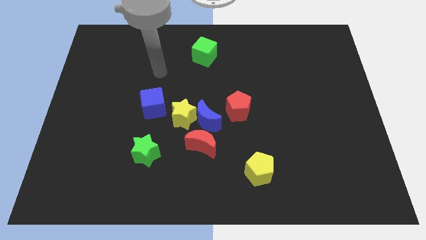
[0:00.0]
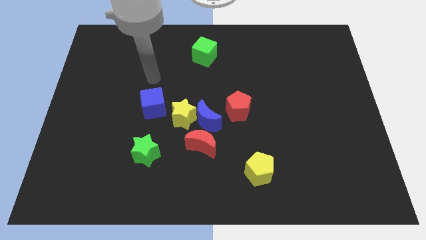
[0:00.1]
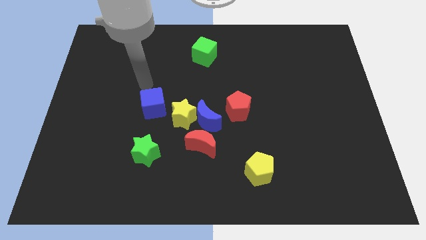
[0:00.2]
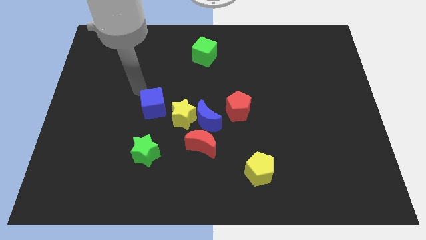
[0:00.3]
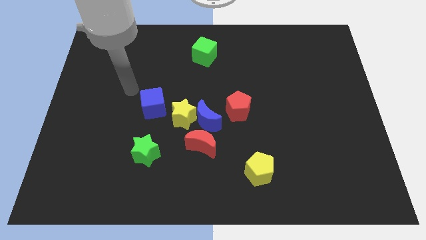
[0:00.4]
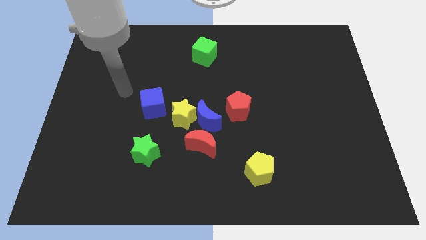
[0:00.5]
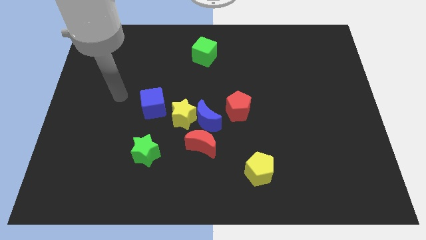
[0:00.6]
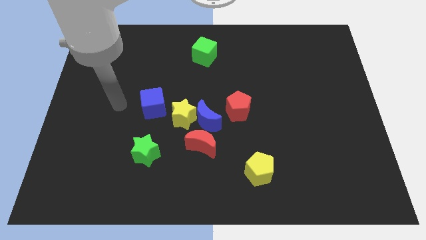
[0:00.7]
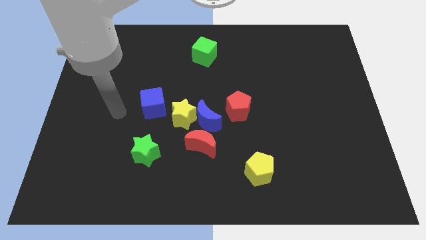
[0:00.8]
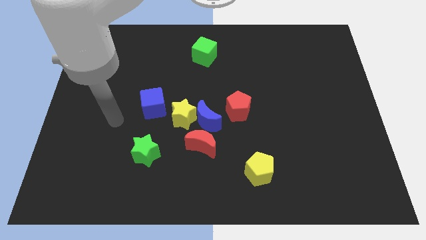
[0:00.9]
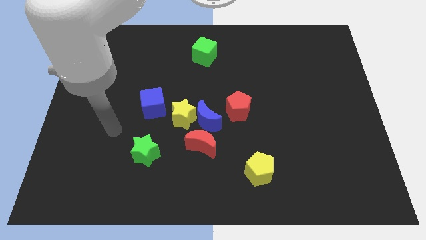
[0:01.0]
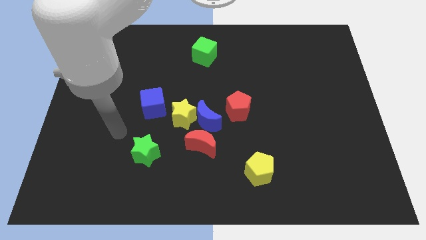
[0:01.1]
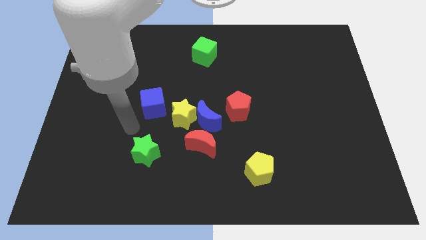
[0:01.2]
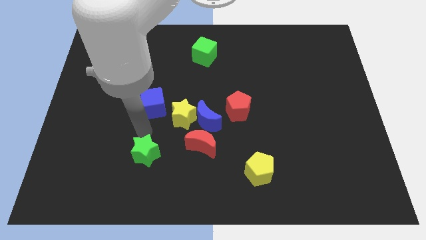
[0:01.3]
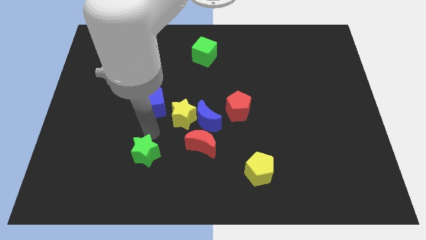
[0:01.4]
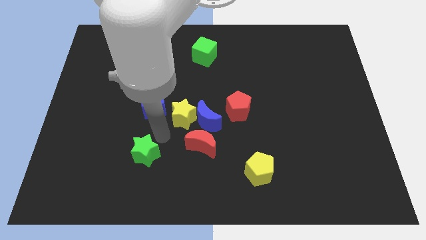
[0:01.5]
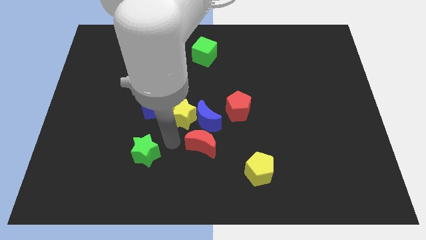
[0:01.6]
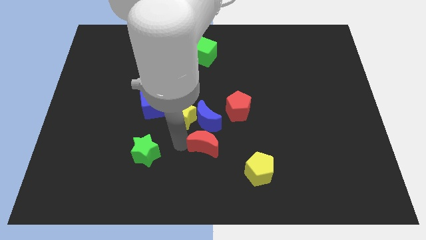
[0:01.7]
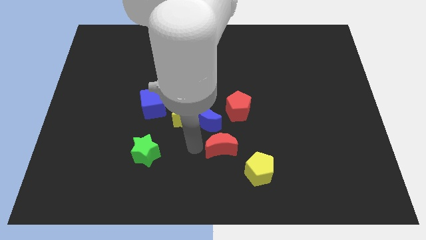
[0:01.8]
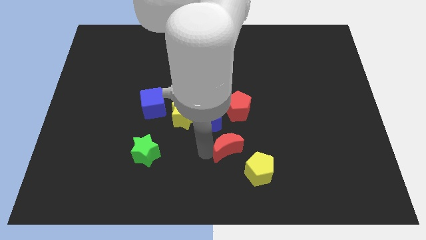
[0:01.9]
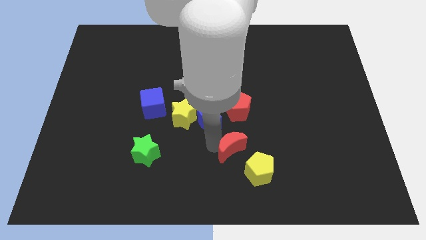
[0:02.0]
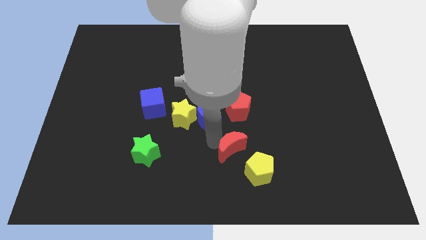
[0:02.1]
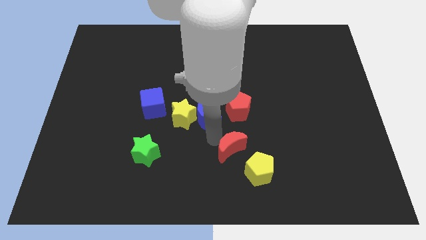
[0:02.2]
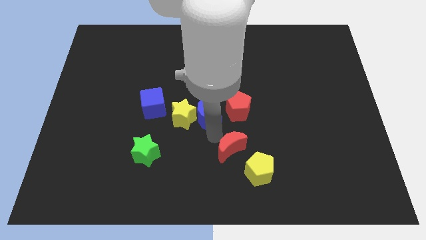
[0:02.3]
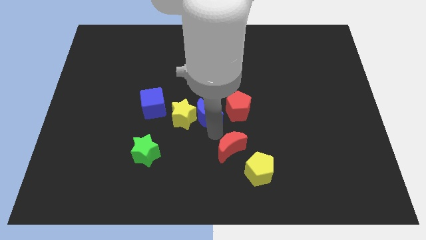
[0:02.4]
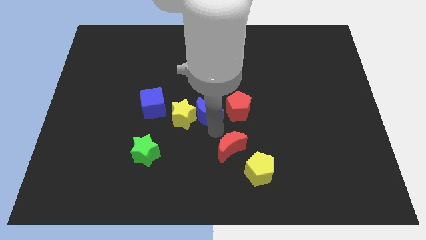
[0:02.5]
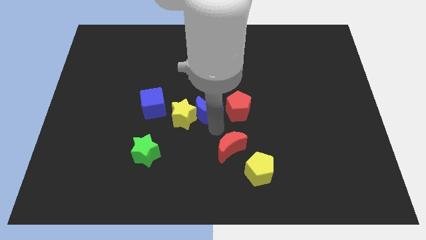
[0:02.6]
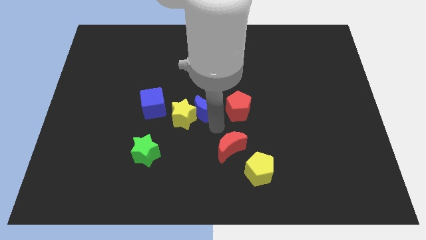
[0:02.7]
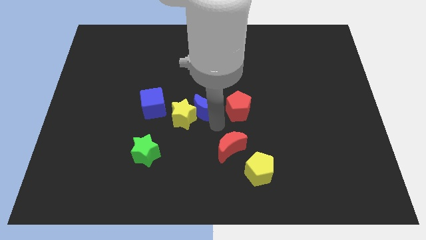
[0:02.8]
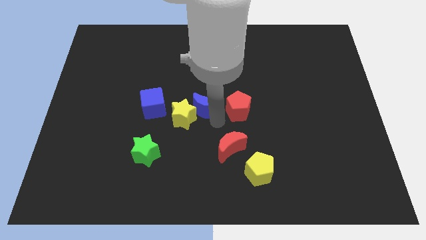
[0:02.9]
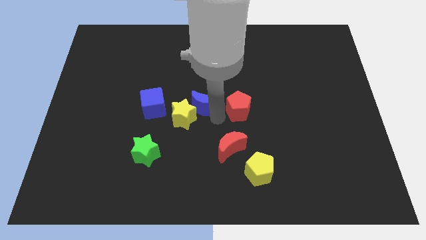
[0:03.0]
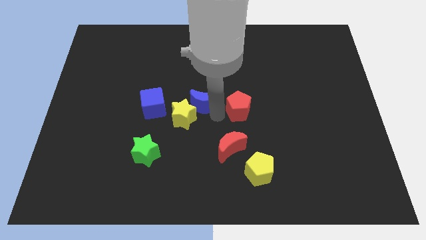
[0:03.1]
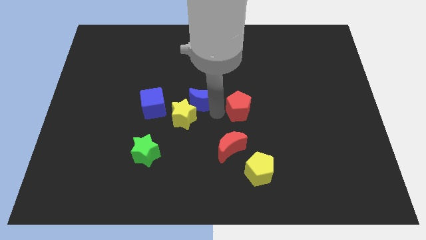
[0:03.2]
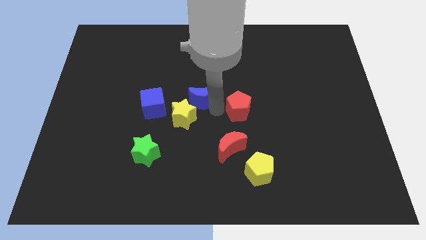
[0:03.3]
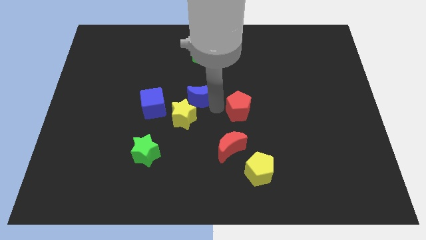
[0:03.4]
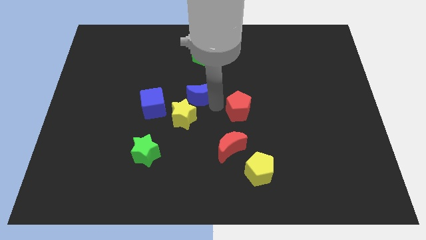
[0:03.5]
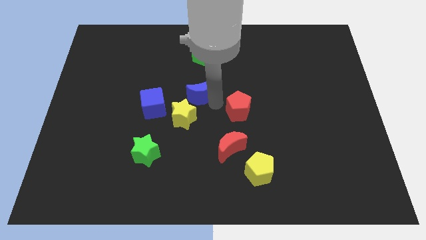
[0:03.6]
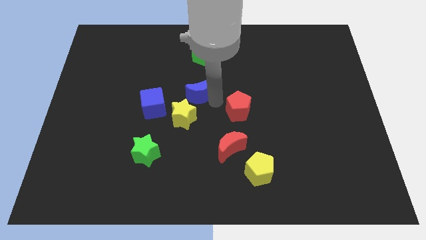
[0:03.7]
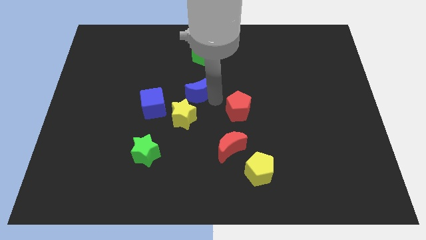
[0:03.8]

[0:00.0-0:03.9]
separate the blue moon from the clump

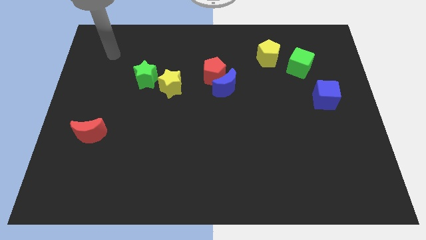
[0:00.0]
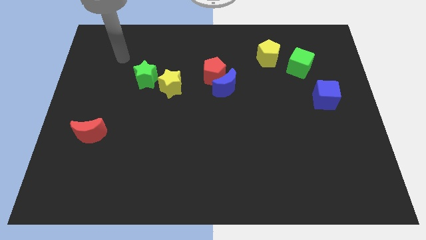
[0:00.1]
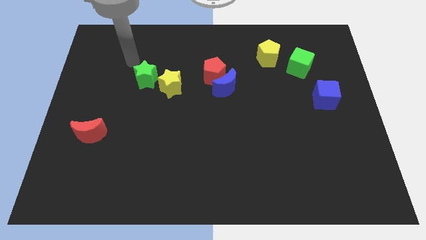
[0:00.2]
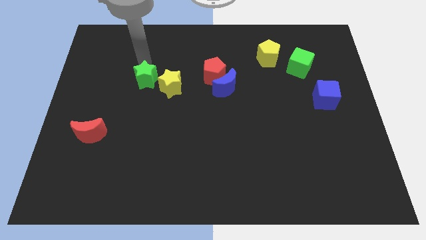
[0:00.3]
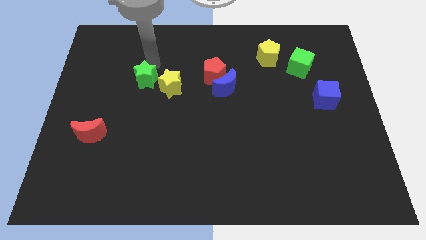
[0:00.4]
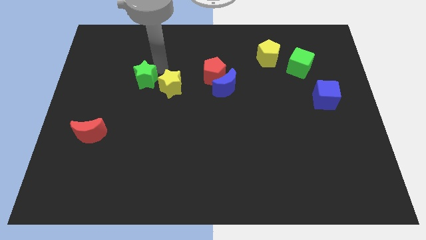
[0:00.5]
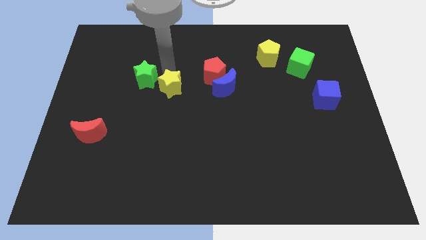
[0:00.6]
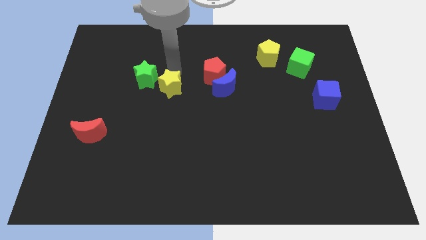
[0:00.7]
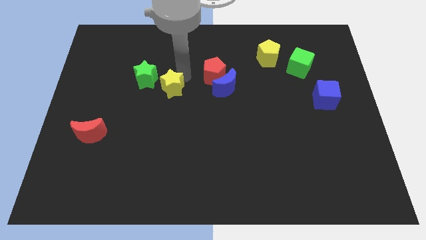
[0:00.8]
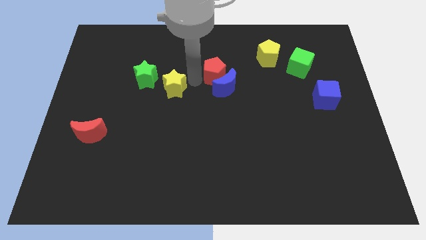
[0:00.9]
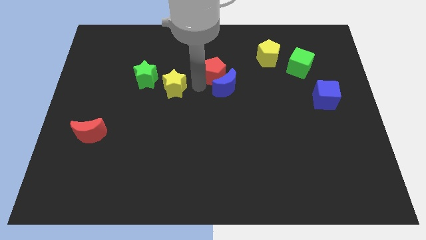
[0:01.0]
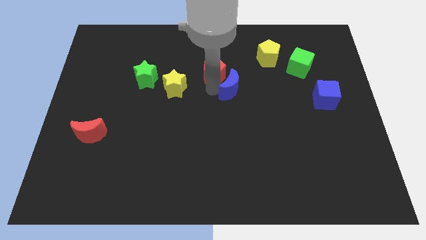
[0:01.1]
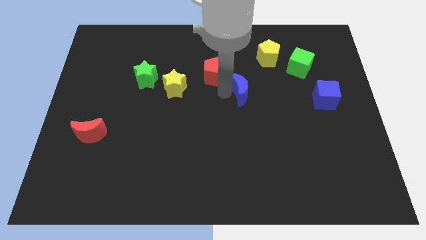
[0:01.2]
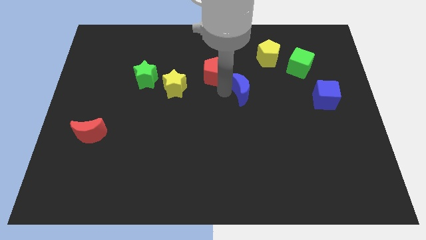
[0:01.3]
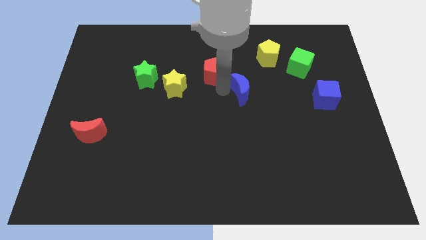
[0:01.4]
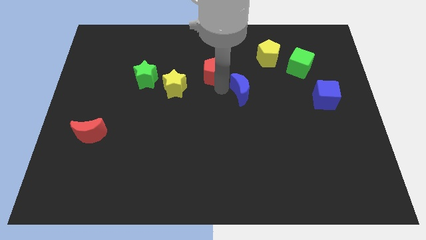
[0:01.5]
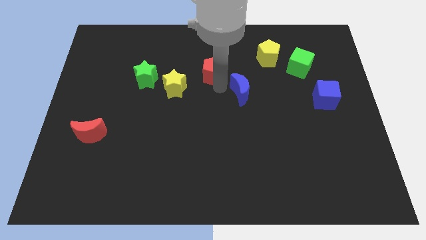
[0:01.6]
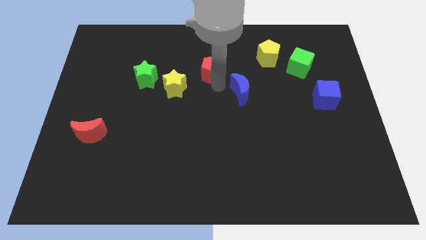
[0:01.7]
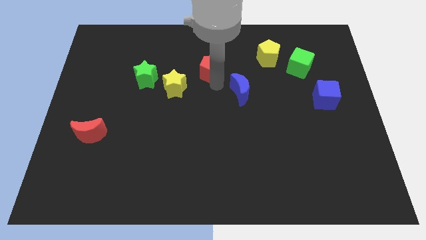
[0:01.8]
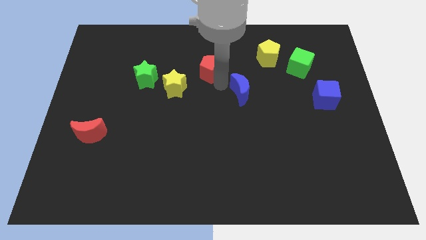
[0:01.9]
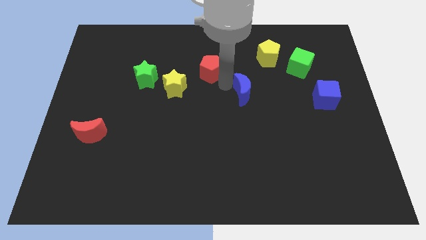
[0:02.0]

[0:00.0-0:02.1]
pull the red pentagon apart from the blue moon

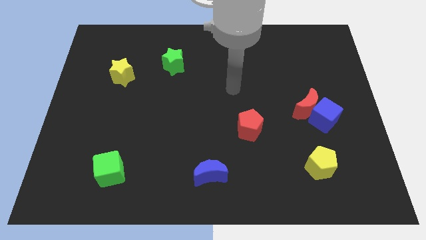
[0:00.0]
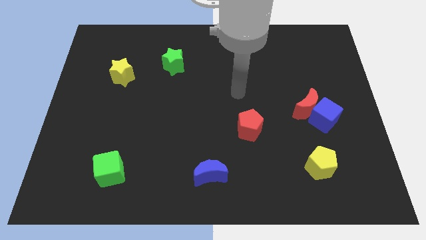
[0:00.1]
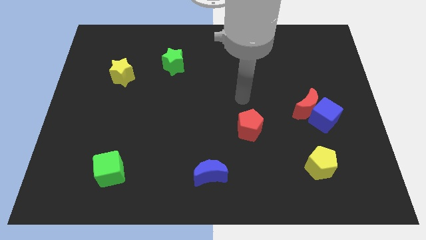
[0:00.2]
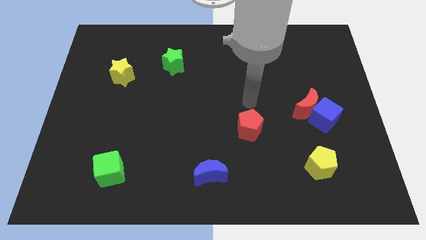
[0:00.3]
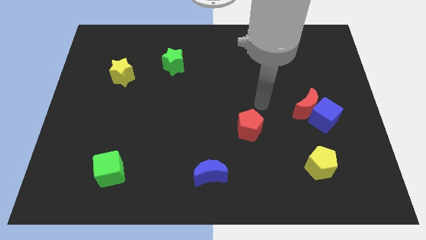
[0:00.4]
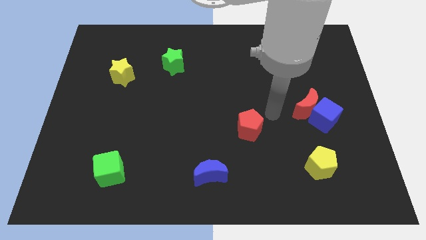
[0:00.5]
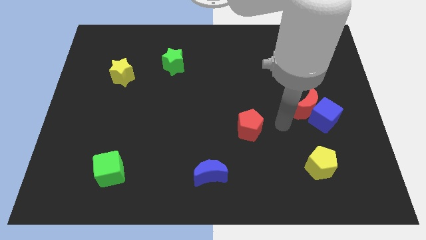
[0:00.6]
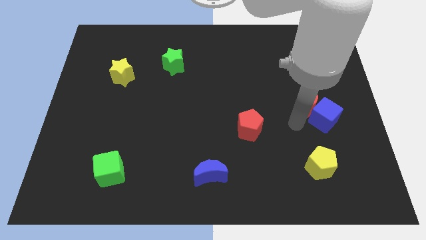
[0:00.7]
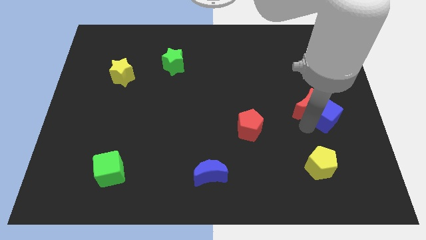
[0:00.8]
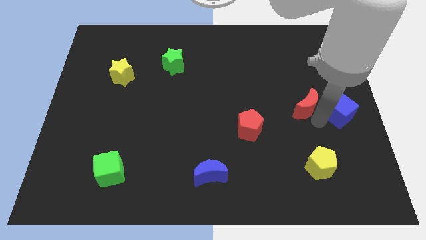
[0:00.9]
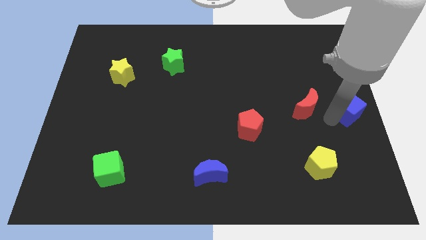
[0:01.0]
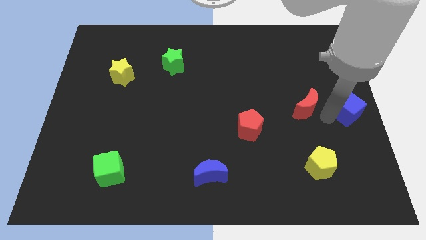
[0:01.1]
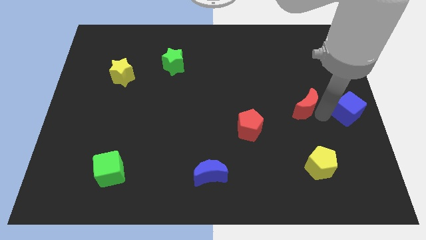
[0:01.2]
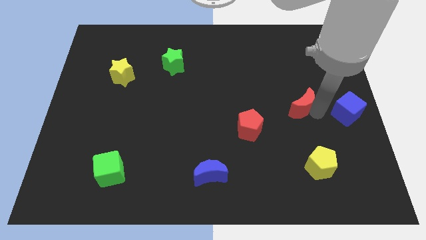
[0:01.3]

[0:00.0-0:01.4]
separate the red moon from the blue cube

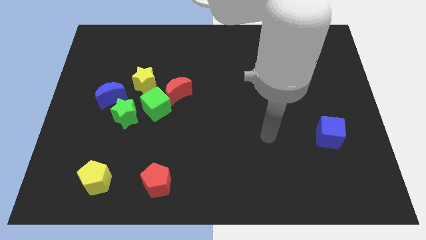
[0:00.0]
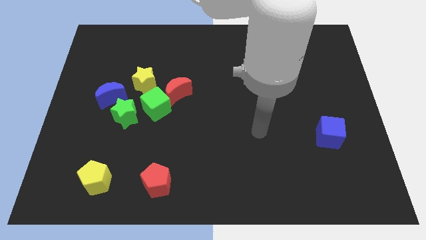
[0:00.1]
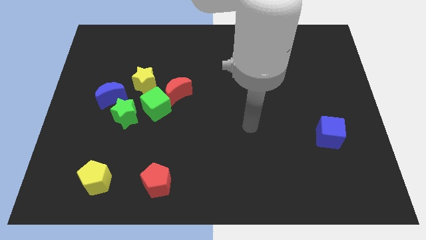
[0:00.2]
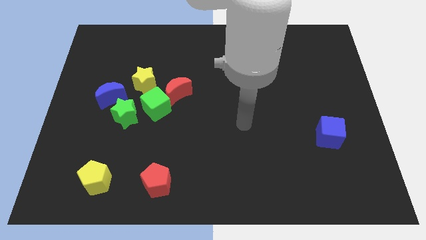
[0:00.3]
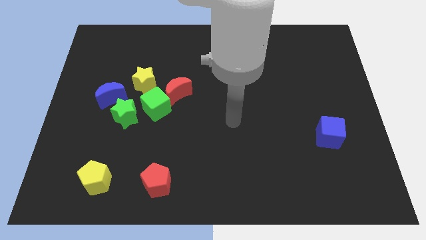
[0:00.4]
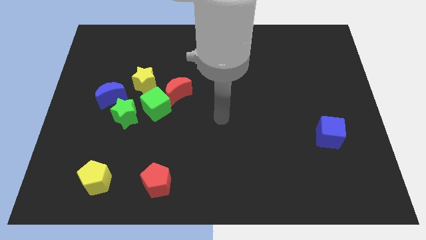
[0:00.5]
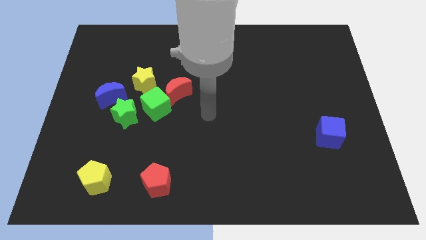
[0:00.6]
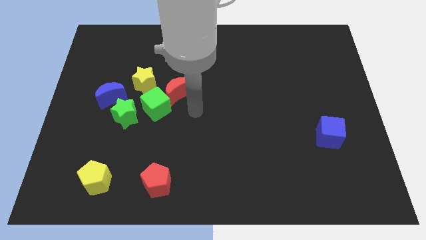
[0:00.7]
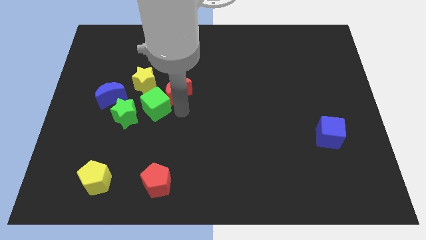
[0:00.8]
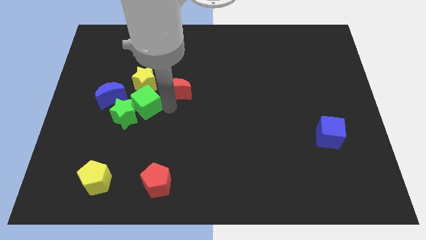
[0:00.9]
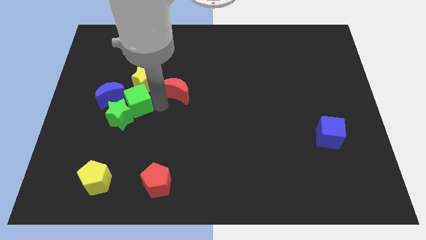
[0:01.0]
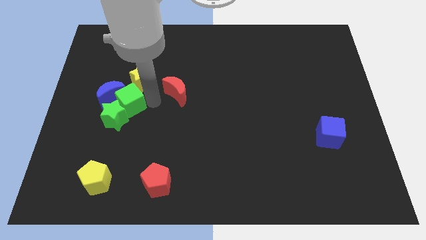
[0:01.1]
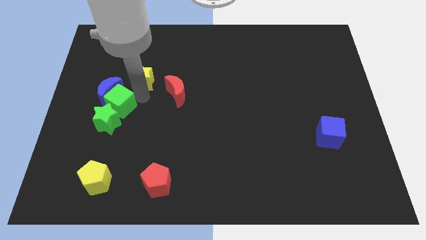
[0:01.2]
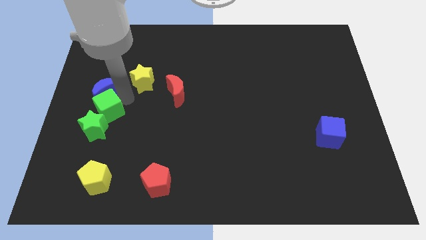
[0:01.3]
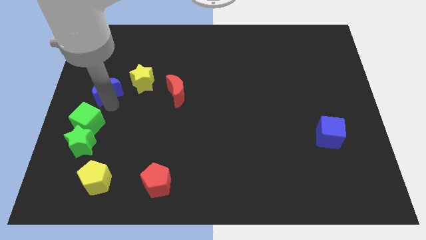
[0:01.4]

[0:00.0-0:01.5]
move the green star away from the blue moon and green cube

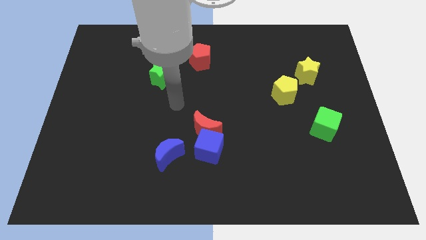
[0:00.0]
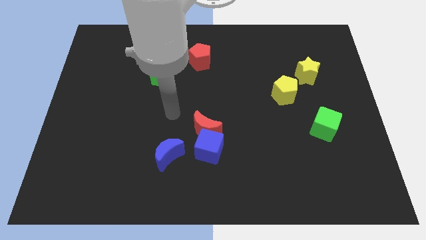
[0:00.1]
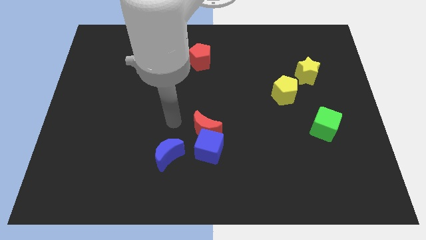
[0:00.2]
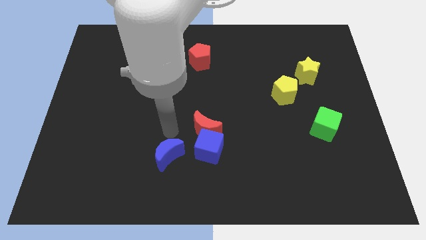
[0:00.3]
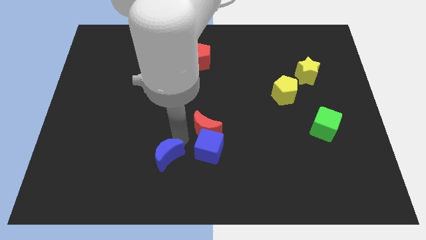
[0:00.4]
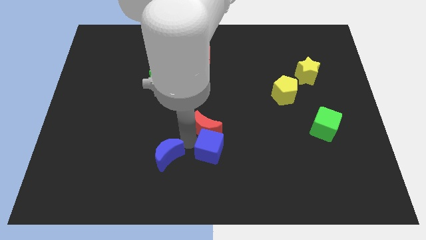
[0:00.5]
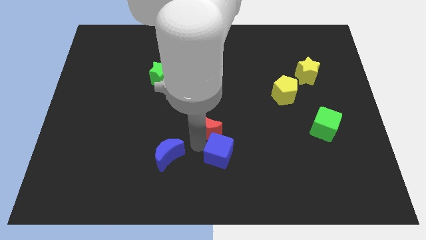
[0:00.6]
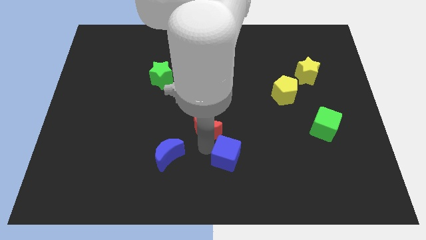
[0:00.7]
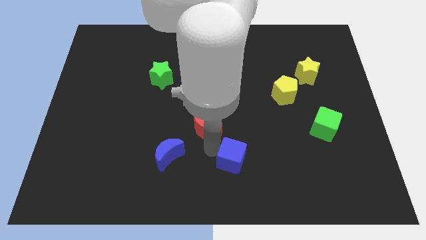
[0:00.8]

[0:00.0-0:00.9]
move the blue cube away from the red moon and blue moon
